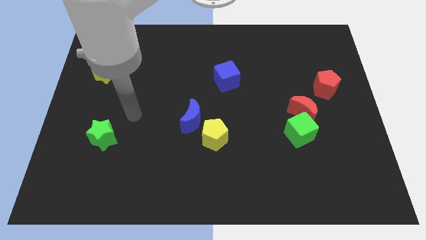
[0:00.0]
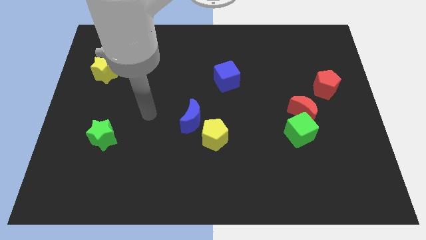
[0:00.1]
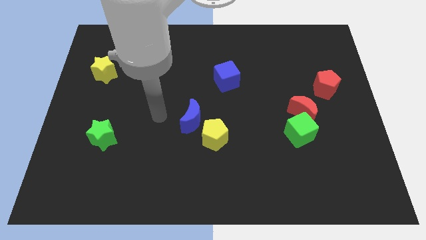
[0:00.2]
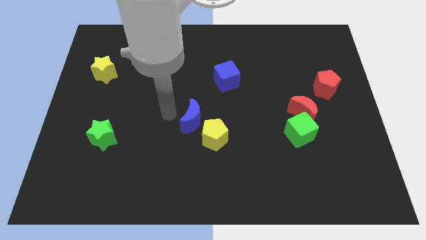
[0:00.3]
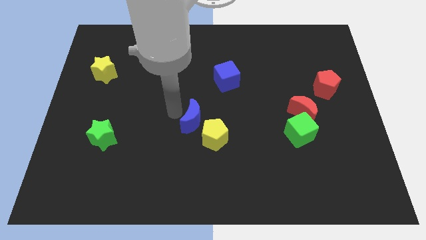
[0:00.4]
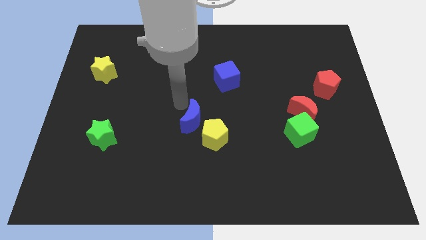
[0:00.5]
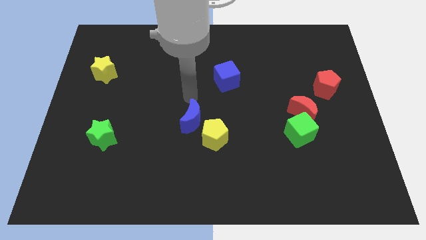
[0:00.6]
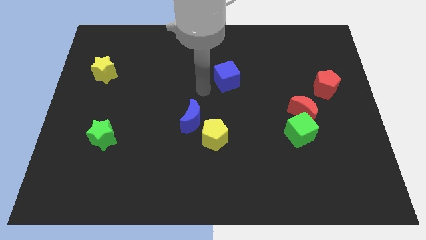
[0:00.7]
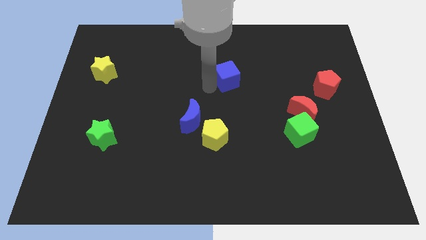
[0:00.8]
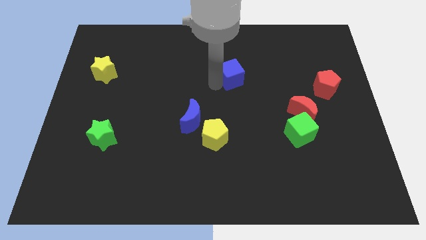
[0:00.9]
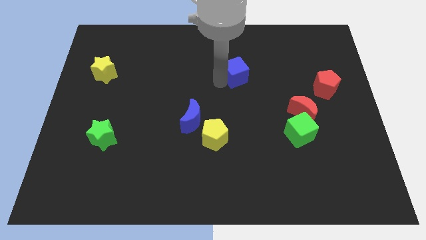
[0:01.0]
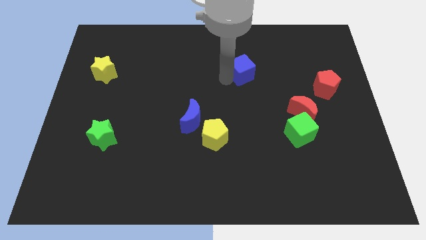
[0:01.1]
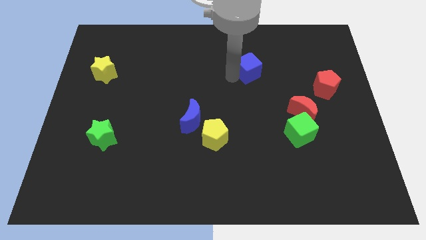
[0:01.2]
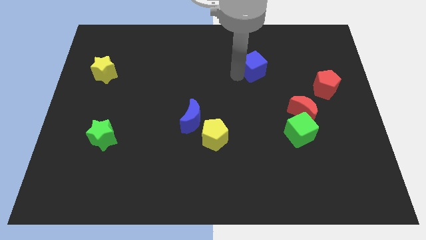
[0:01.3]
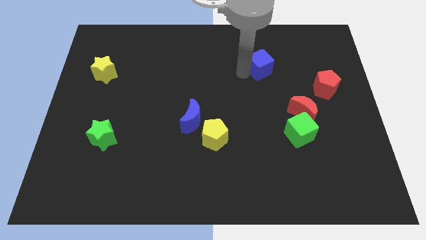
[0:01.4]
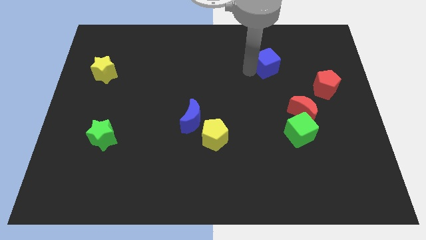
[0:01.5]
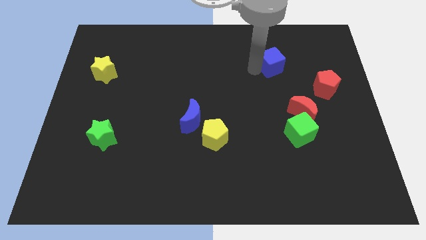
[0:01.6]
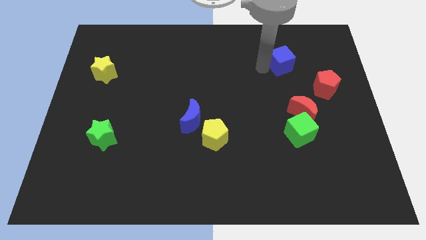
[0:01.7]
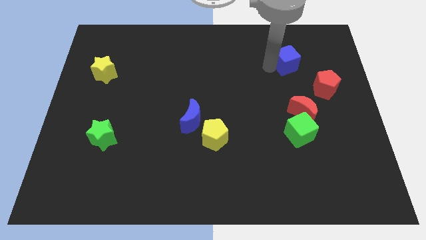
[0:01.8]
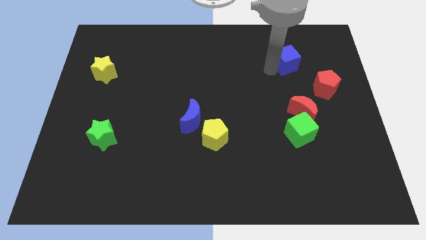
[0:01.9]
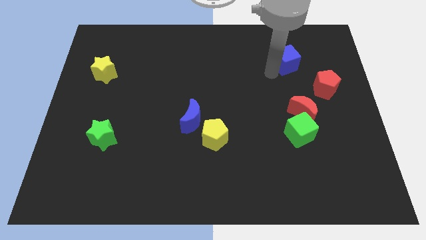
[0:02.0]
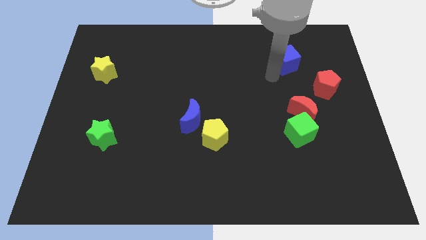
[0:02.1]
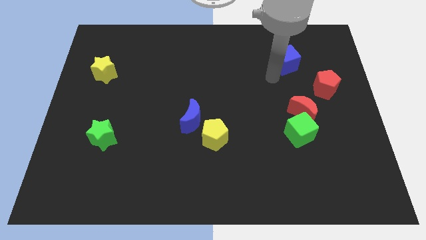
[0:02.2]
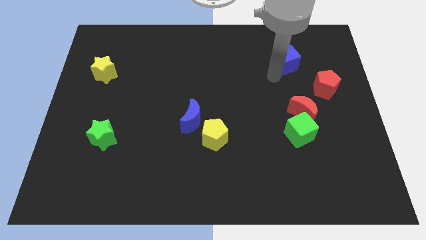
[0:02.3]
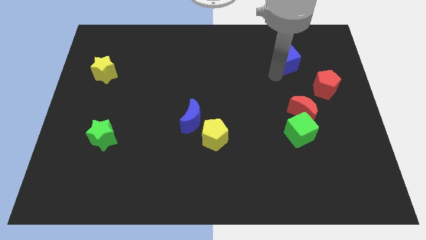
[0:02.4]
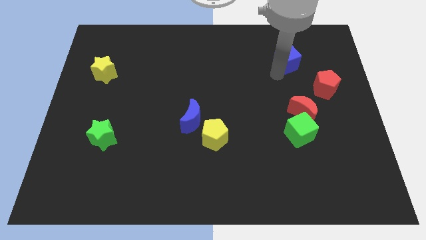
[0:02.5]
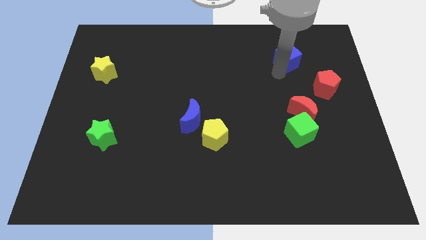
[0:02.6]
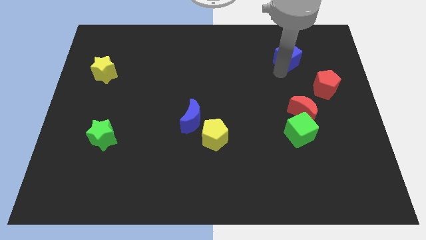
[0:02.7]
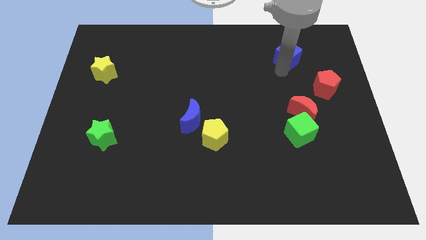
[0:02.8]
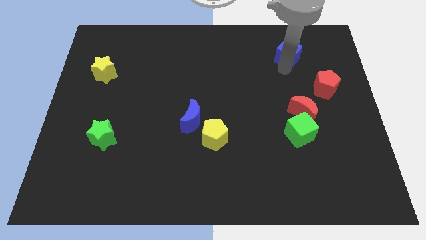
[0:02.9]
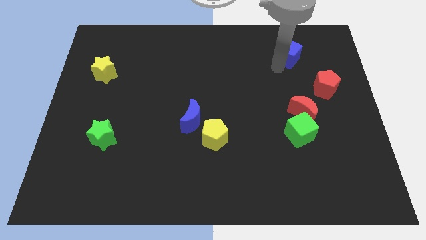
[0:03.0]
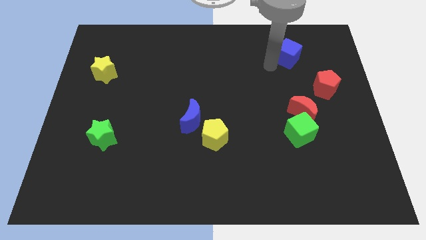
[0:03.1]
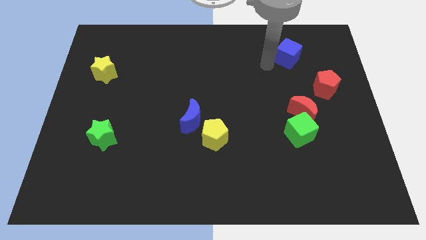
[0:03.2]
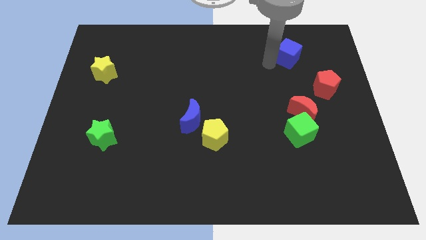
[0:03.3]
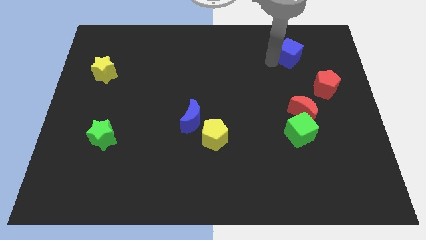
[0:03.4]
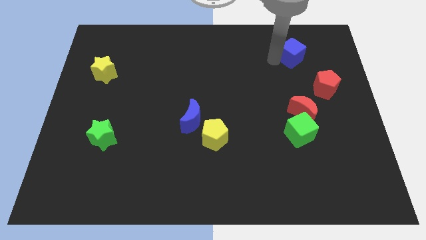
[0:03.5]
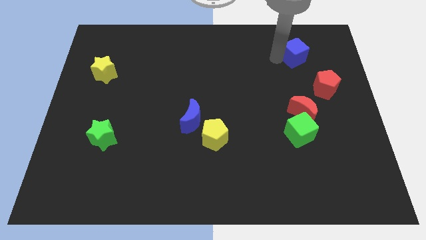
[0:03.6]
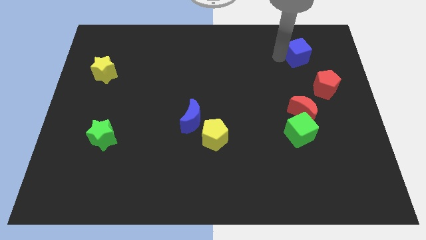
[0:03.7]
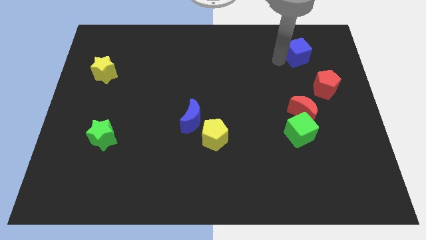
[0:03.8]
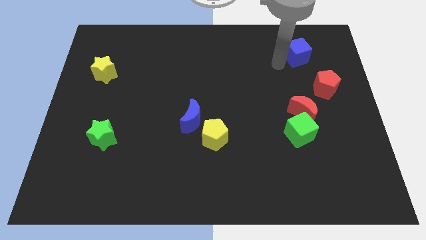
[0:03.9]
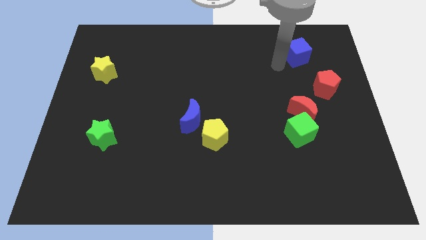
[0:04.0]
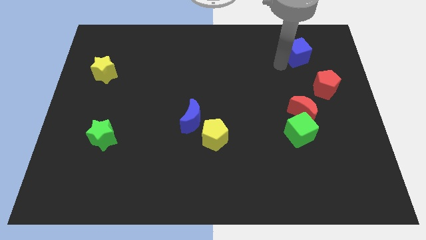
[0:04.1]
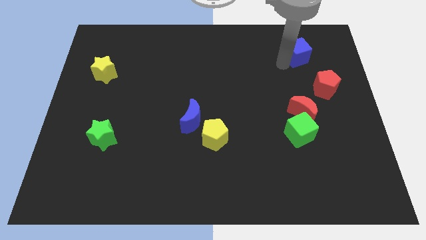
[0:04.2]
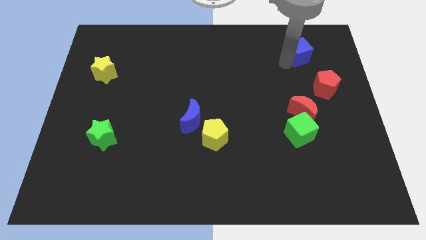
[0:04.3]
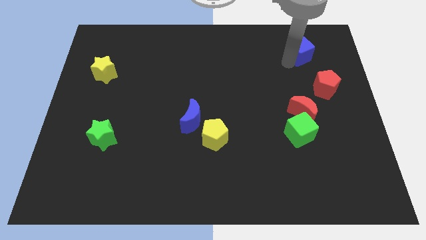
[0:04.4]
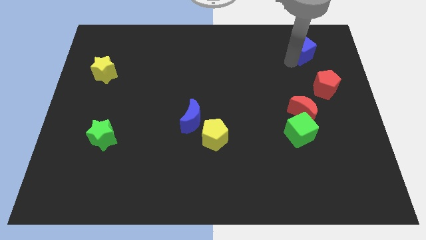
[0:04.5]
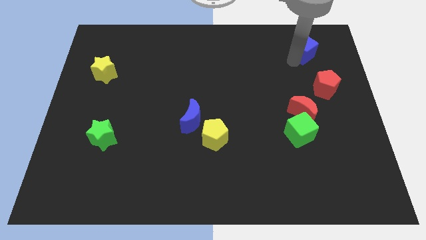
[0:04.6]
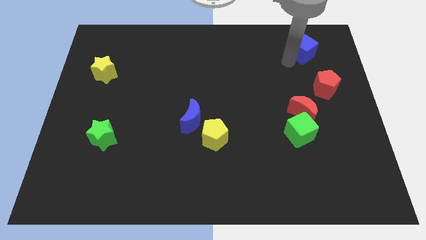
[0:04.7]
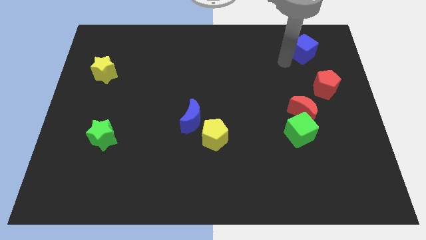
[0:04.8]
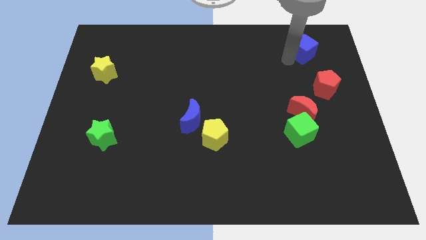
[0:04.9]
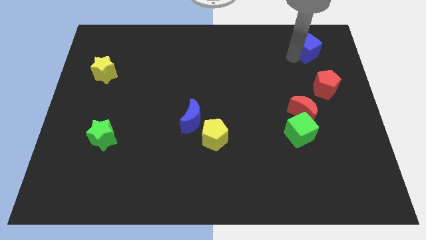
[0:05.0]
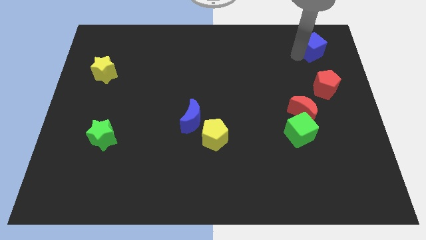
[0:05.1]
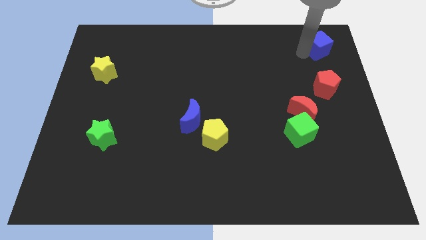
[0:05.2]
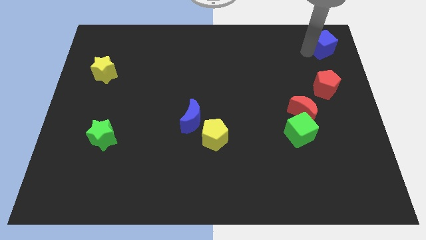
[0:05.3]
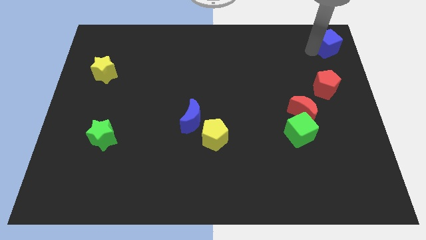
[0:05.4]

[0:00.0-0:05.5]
put the blue cube to the top right of the board

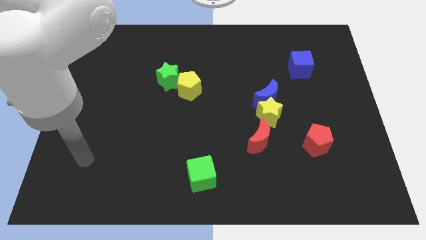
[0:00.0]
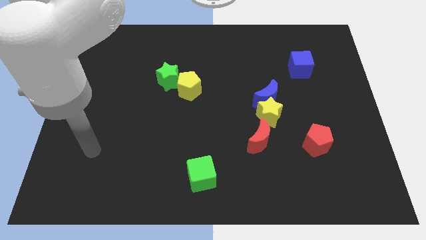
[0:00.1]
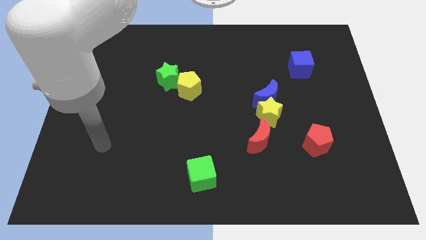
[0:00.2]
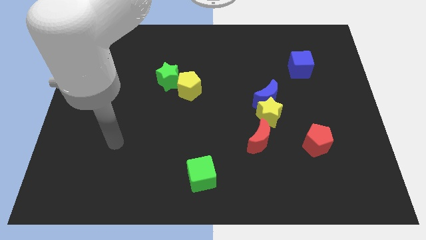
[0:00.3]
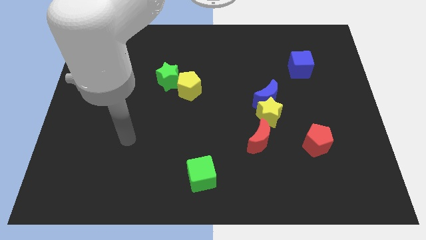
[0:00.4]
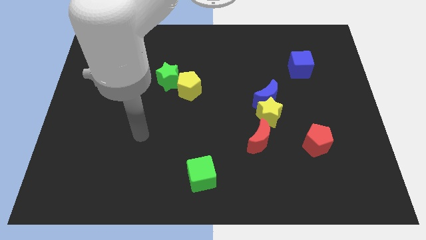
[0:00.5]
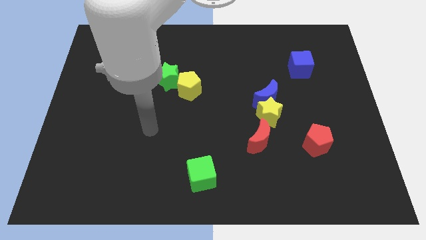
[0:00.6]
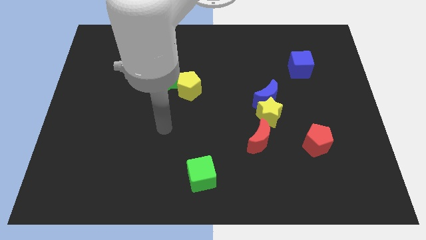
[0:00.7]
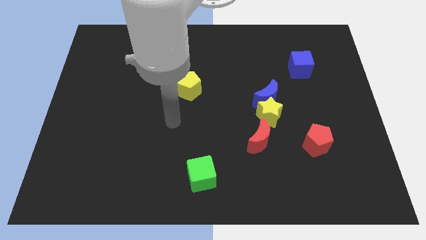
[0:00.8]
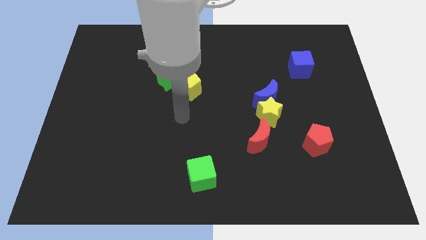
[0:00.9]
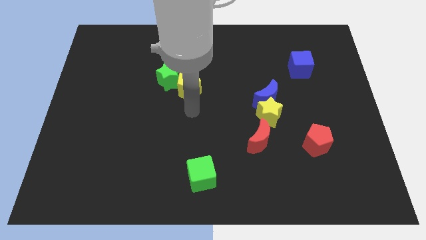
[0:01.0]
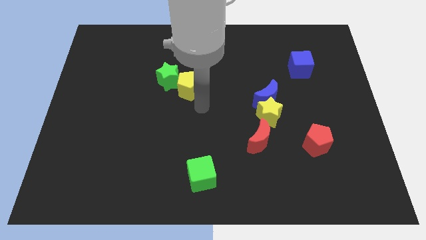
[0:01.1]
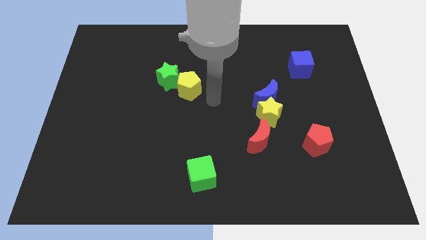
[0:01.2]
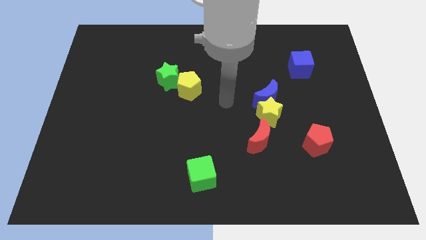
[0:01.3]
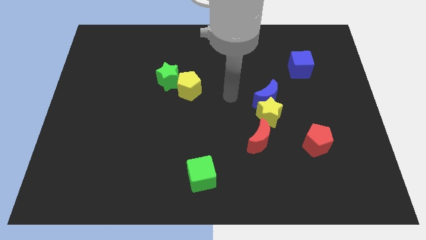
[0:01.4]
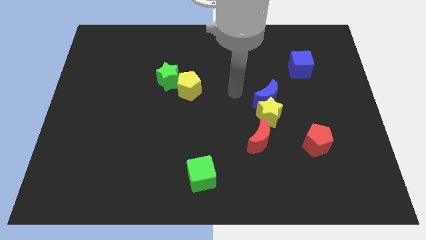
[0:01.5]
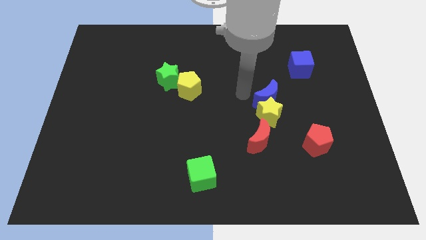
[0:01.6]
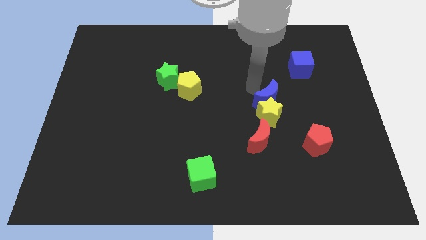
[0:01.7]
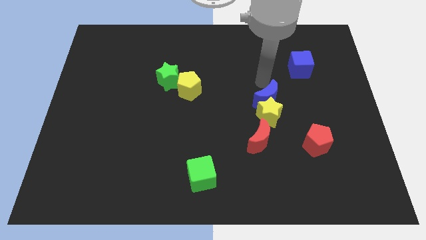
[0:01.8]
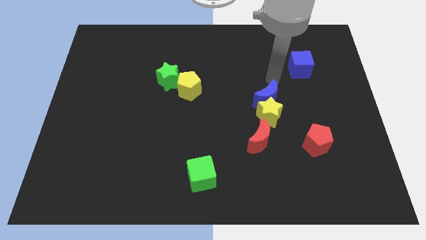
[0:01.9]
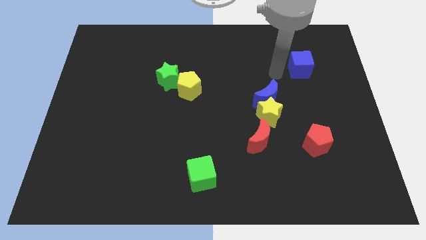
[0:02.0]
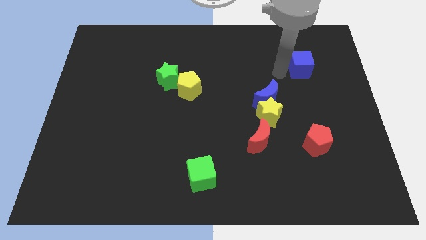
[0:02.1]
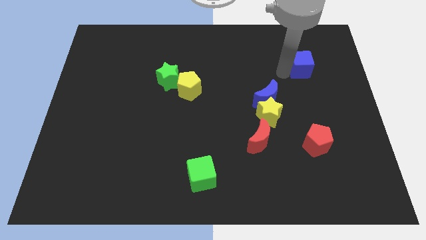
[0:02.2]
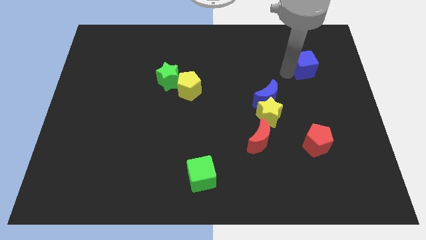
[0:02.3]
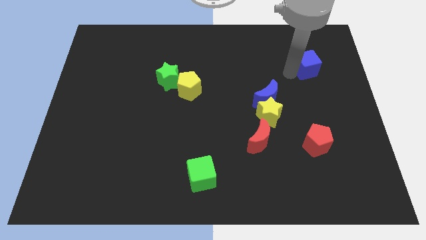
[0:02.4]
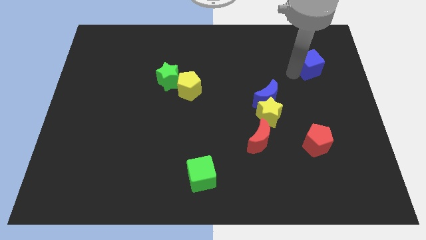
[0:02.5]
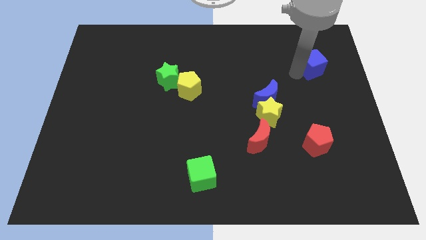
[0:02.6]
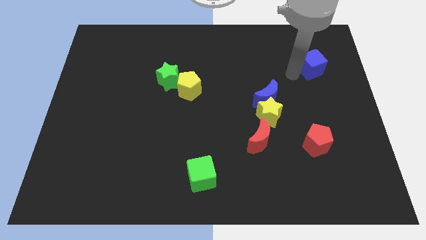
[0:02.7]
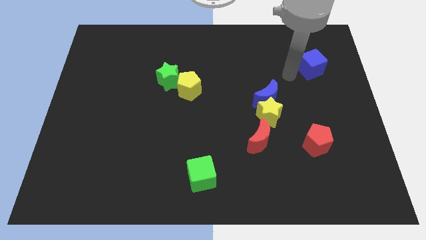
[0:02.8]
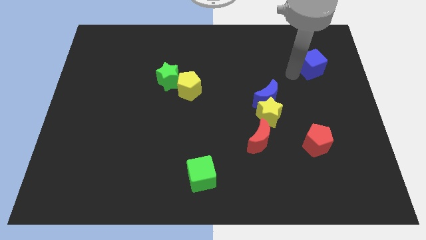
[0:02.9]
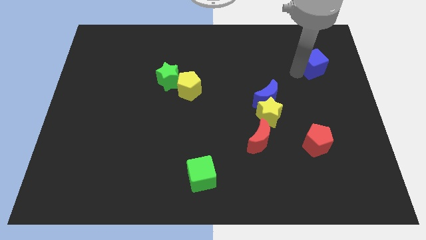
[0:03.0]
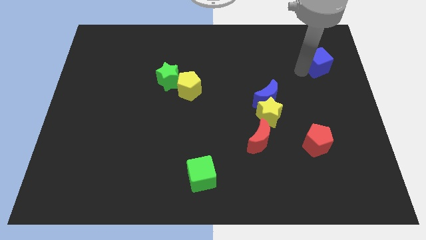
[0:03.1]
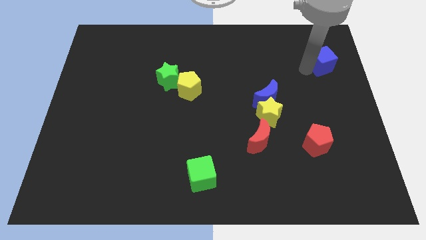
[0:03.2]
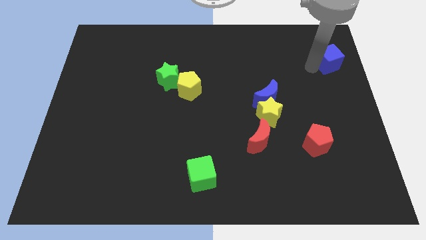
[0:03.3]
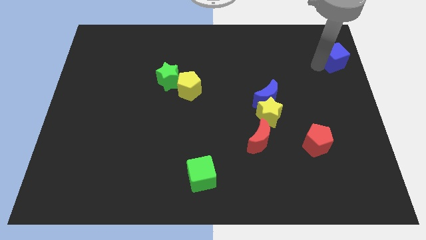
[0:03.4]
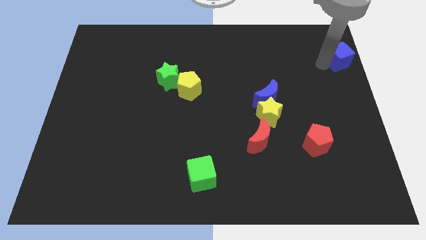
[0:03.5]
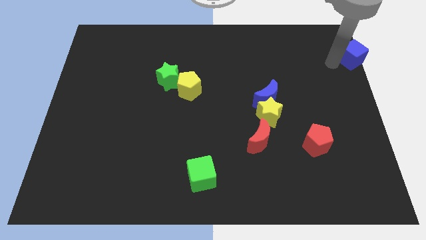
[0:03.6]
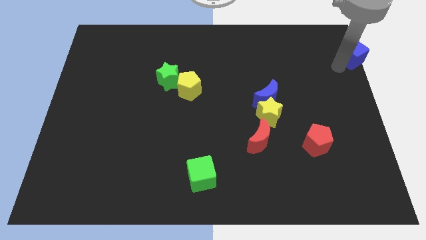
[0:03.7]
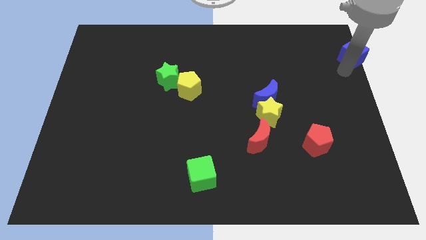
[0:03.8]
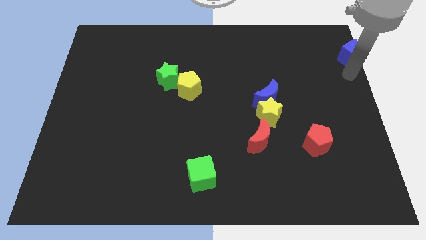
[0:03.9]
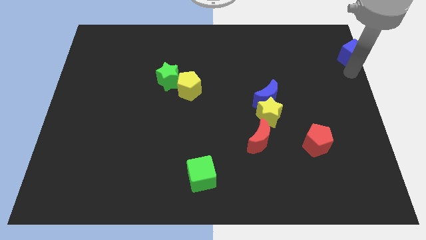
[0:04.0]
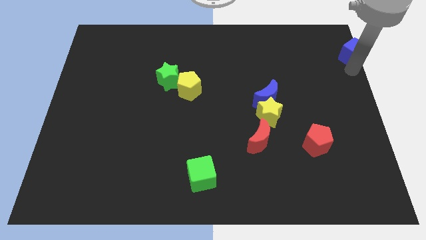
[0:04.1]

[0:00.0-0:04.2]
put the blue cube to the top right
